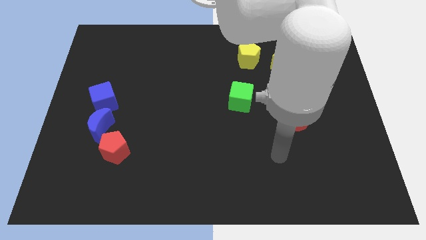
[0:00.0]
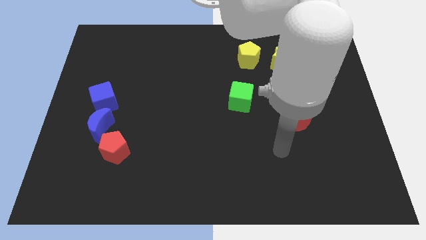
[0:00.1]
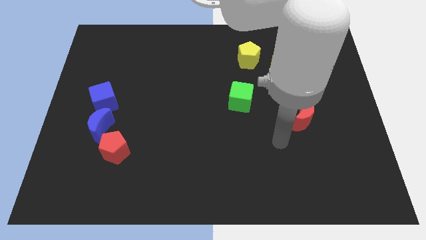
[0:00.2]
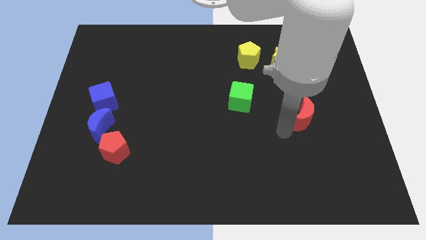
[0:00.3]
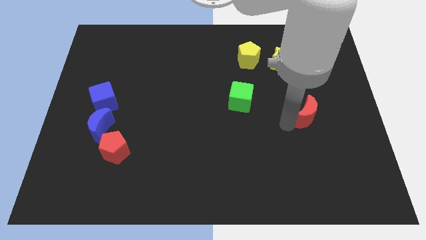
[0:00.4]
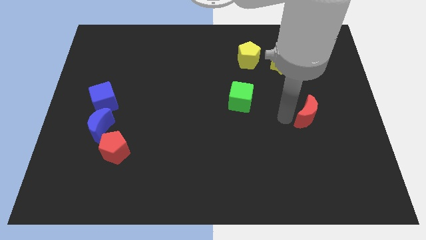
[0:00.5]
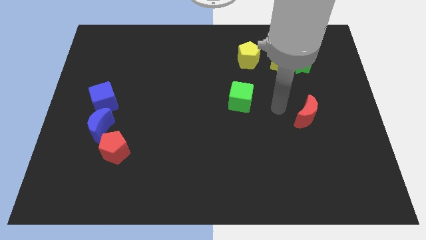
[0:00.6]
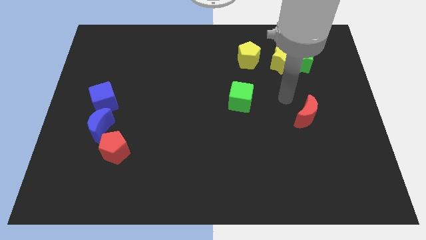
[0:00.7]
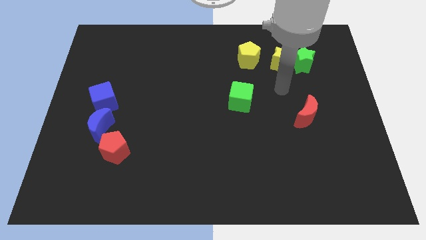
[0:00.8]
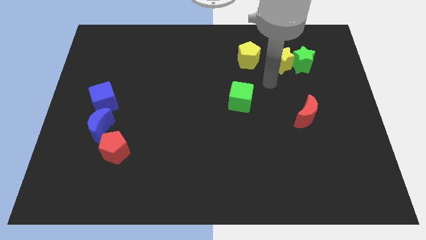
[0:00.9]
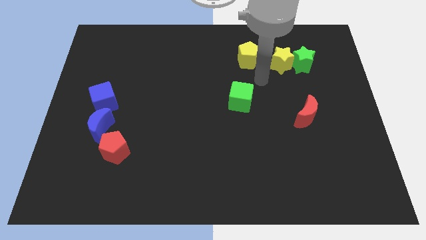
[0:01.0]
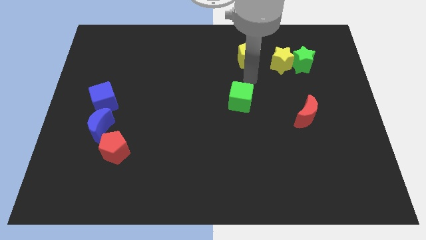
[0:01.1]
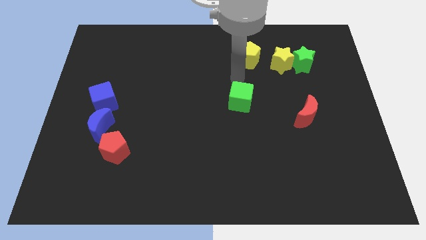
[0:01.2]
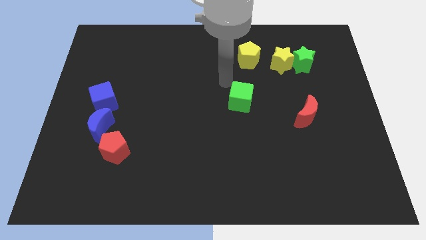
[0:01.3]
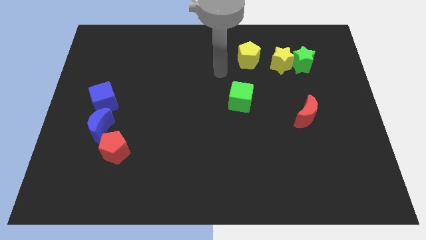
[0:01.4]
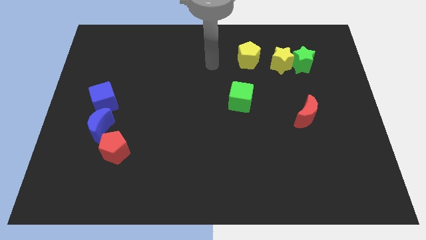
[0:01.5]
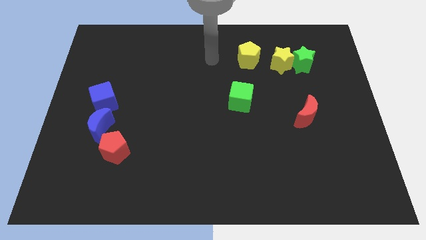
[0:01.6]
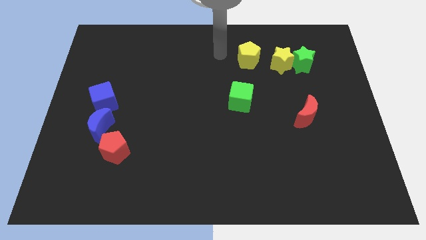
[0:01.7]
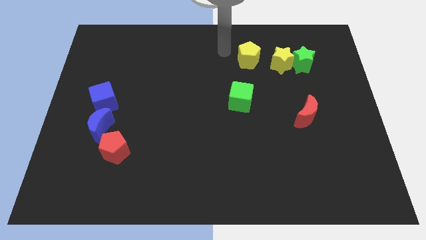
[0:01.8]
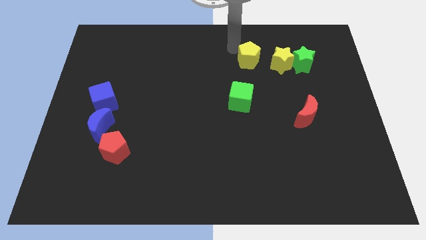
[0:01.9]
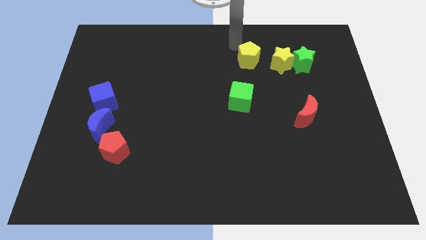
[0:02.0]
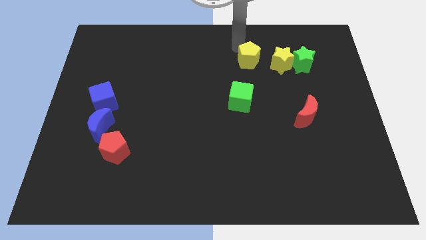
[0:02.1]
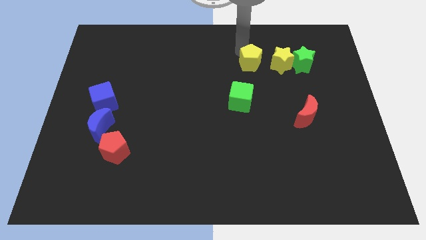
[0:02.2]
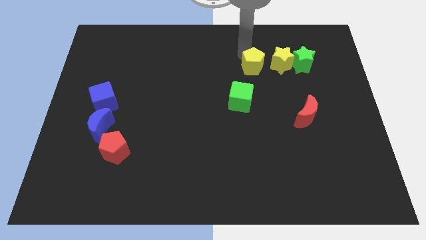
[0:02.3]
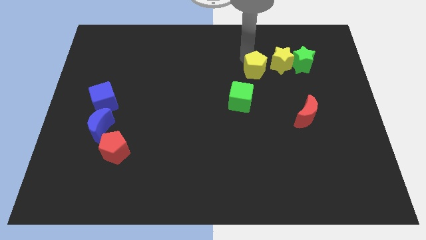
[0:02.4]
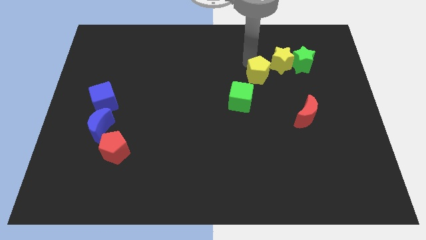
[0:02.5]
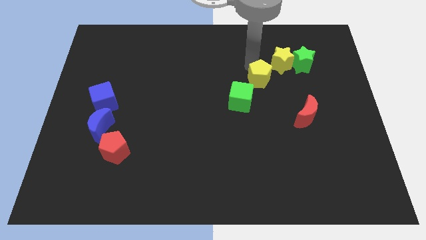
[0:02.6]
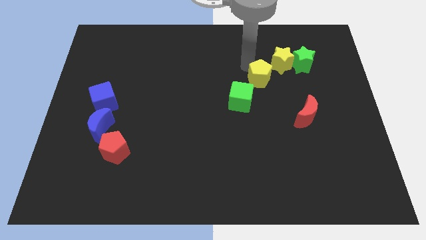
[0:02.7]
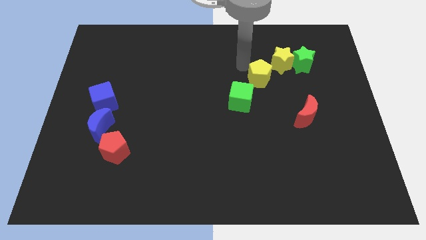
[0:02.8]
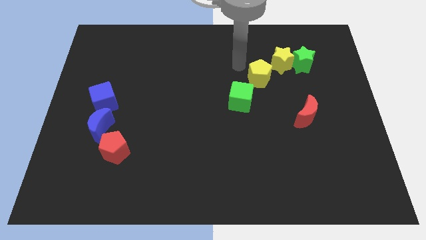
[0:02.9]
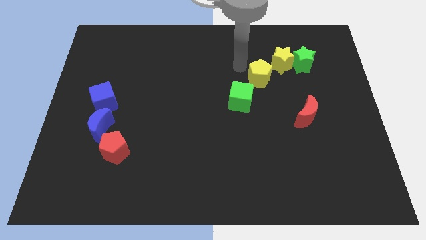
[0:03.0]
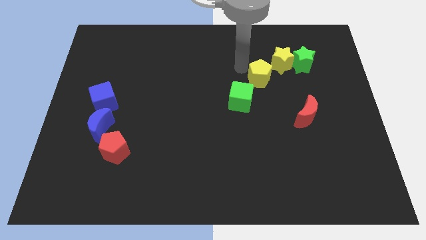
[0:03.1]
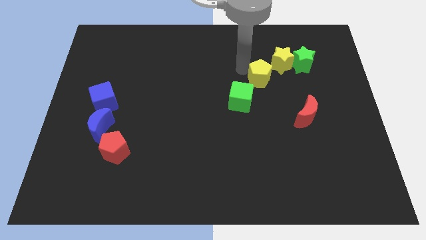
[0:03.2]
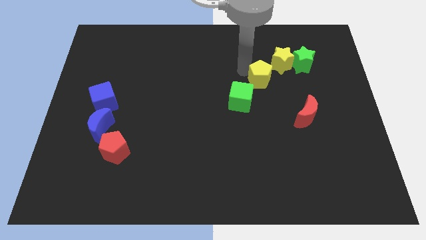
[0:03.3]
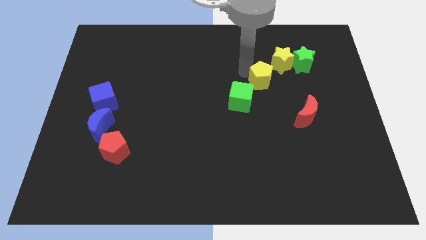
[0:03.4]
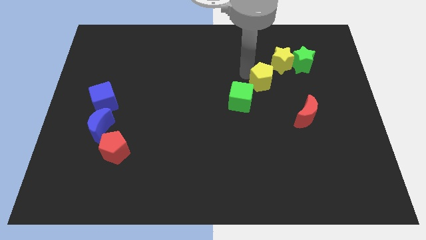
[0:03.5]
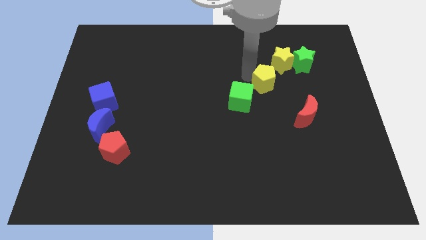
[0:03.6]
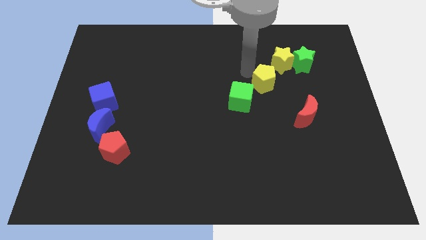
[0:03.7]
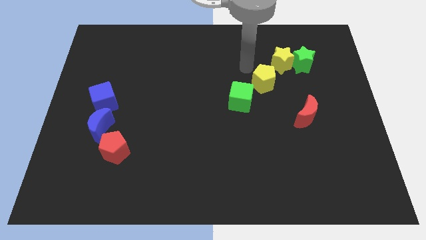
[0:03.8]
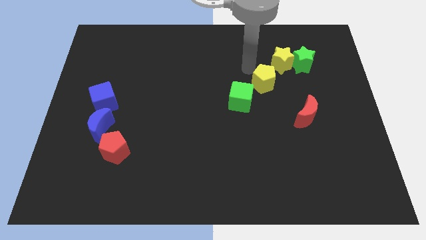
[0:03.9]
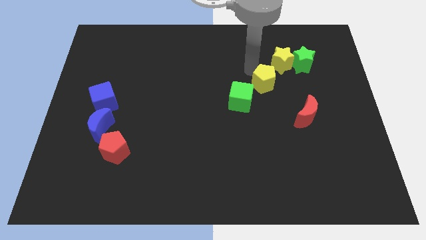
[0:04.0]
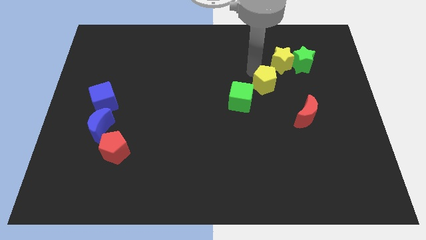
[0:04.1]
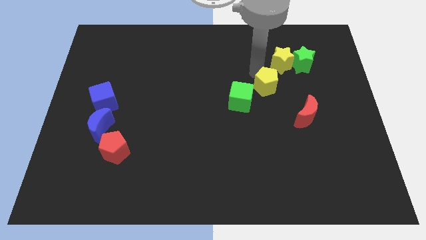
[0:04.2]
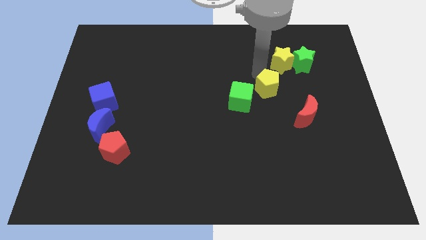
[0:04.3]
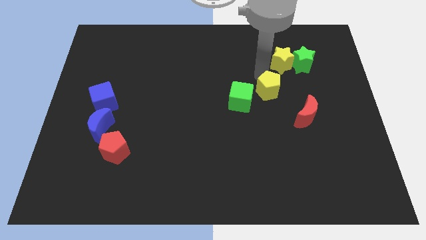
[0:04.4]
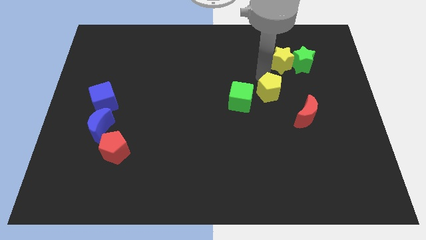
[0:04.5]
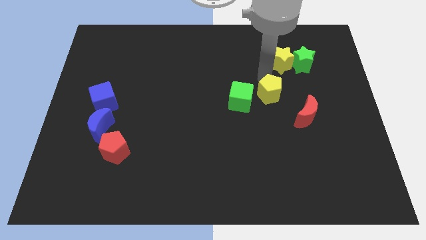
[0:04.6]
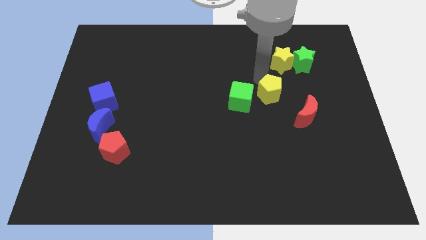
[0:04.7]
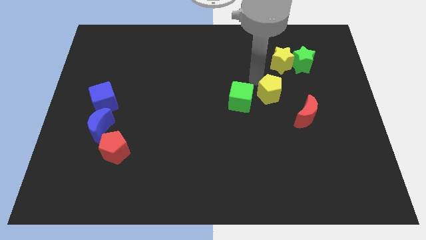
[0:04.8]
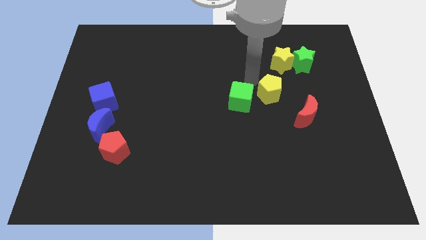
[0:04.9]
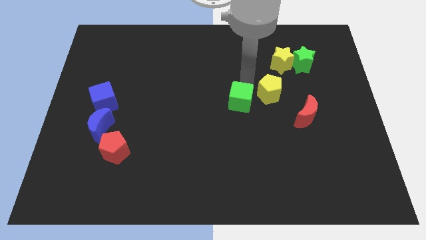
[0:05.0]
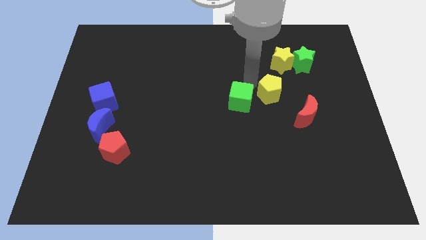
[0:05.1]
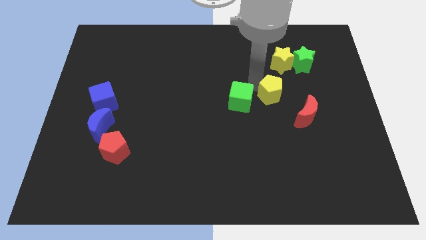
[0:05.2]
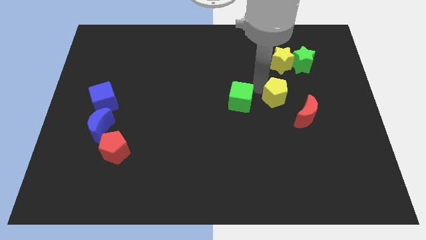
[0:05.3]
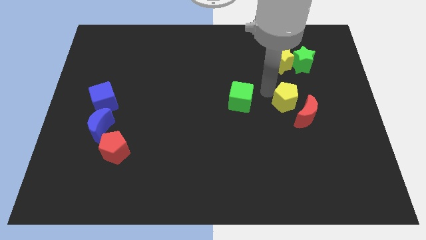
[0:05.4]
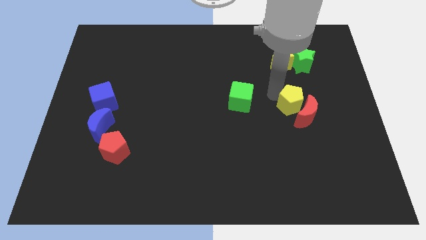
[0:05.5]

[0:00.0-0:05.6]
put the yellow pentagon next to the red moon

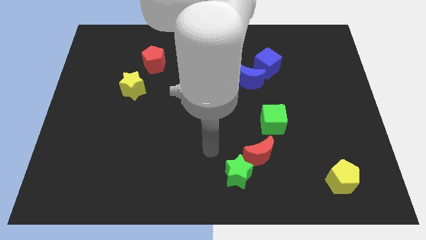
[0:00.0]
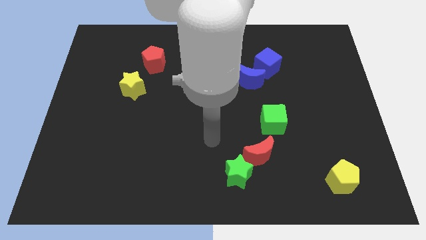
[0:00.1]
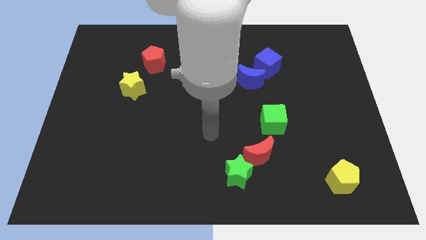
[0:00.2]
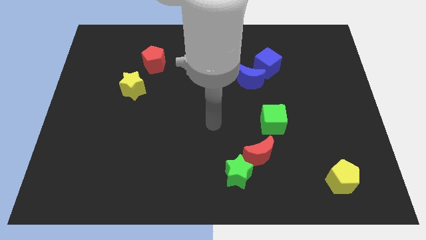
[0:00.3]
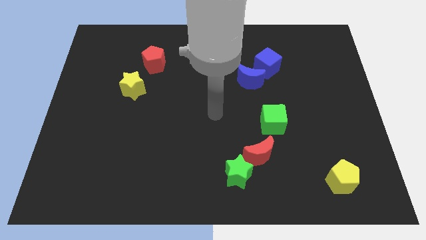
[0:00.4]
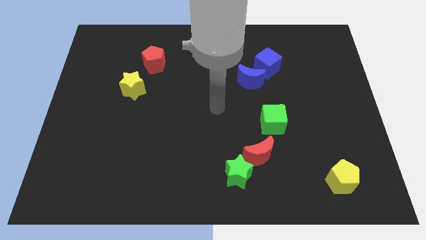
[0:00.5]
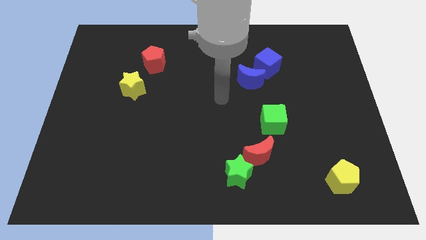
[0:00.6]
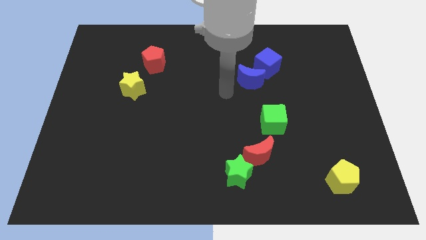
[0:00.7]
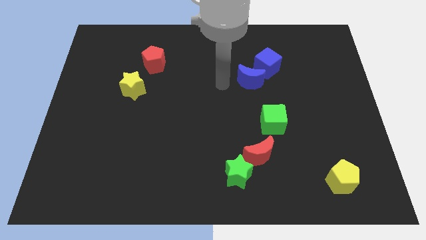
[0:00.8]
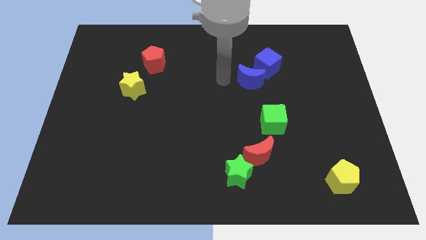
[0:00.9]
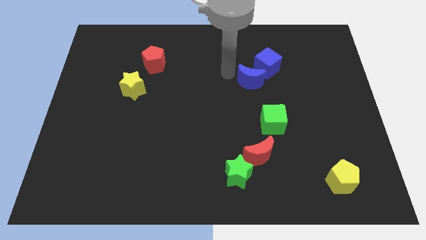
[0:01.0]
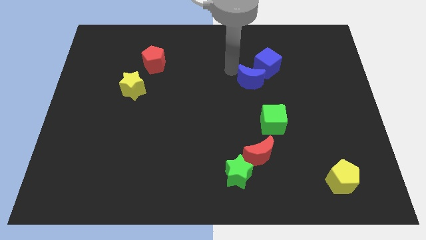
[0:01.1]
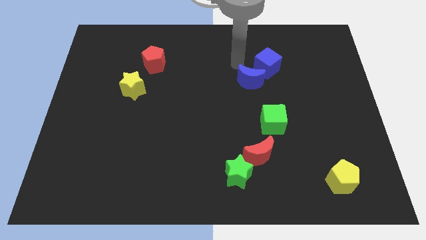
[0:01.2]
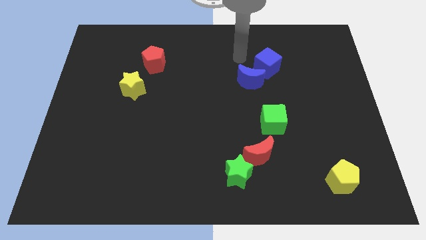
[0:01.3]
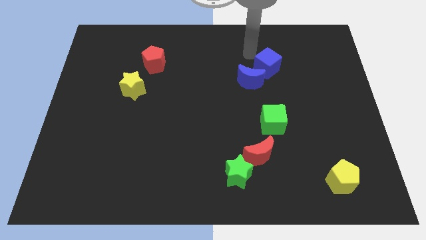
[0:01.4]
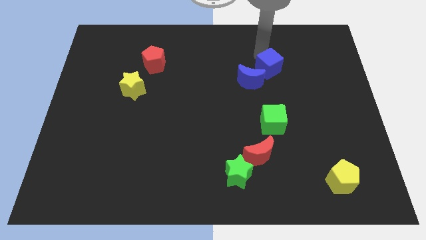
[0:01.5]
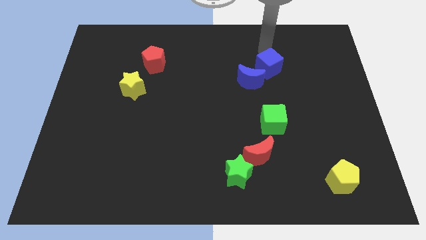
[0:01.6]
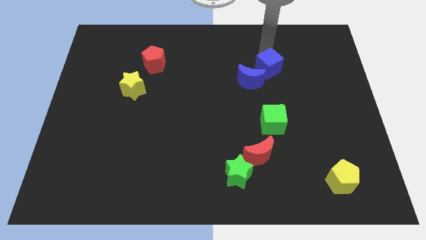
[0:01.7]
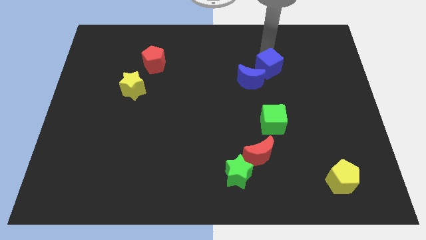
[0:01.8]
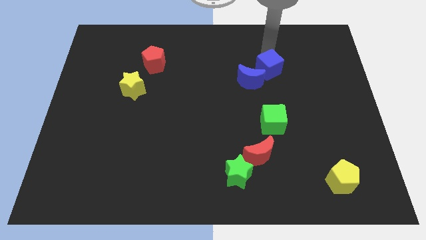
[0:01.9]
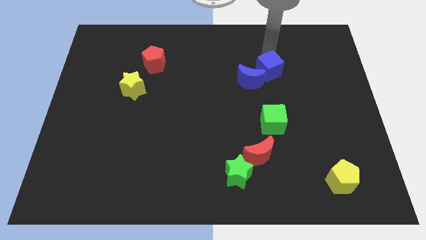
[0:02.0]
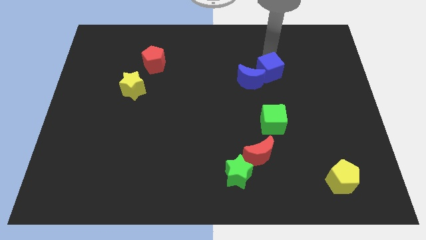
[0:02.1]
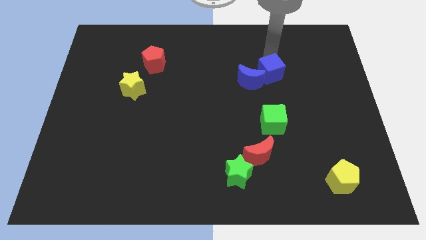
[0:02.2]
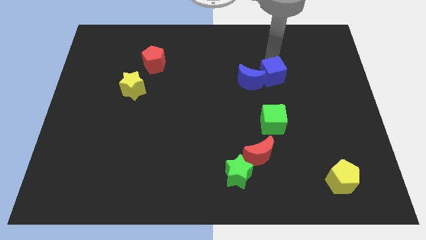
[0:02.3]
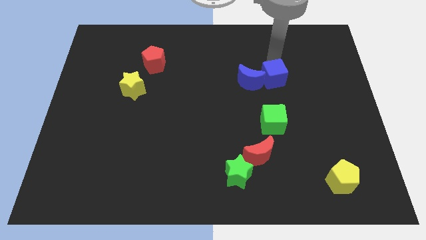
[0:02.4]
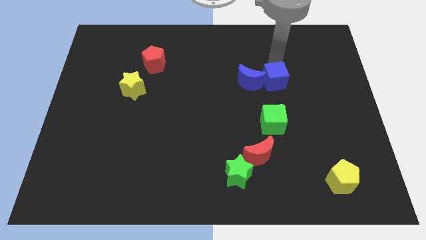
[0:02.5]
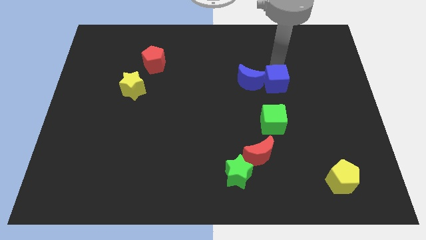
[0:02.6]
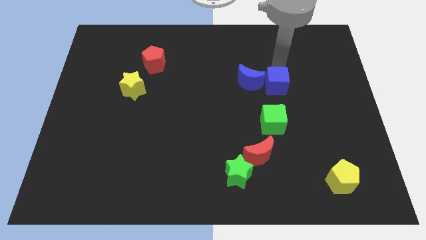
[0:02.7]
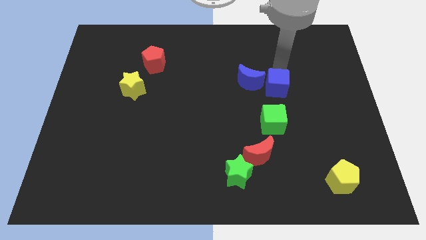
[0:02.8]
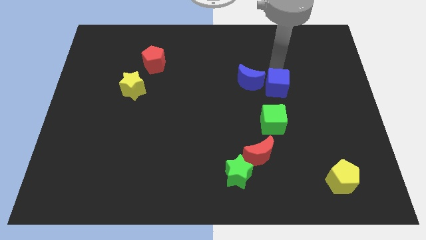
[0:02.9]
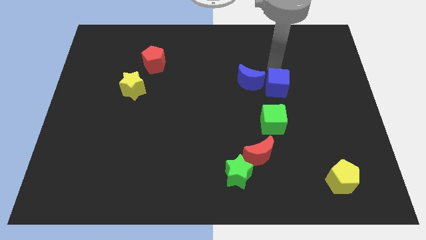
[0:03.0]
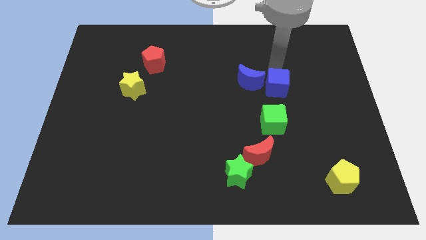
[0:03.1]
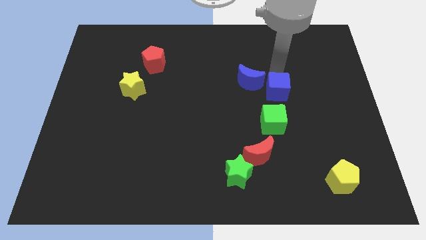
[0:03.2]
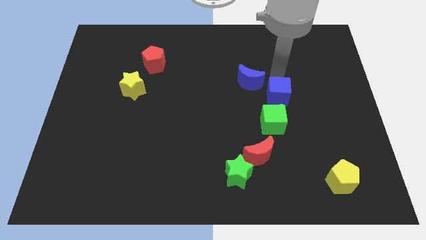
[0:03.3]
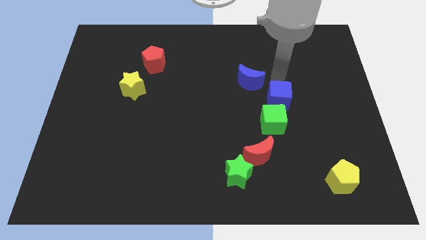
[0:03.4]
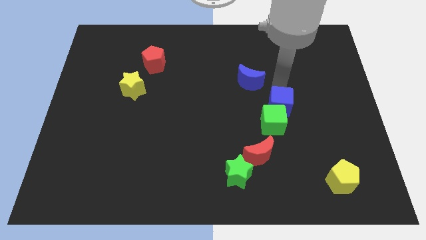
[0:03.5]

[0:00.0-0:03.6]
move the blue cube close to the green cube
